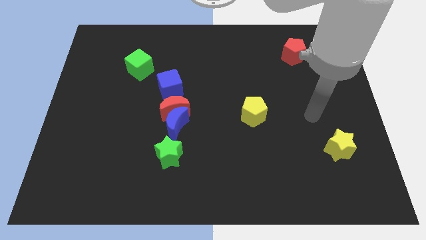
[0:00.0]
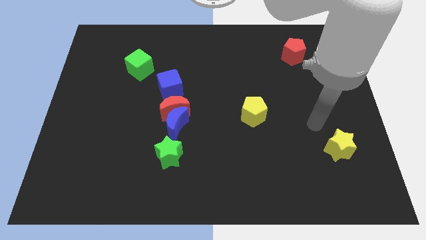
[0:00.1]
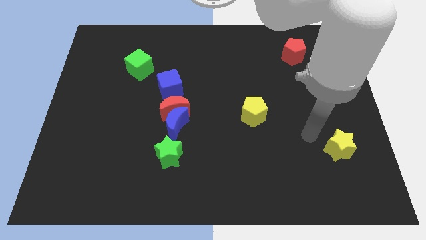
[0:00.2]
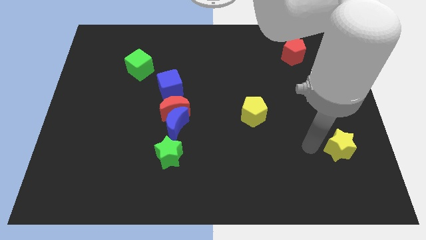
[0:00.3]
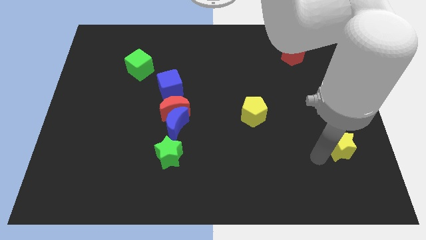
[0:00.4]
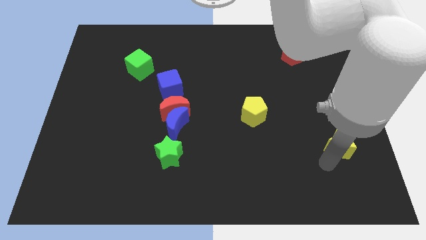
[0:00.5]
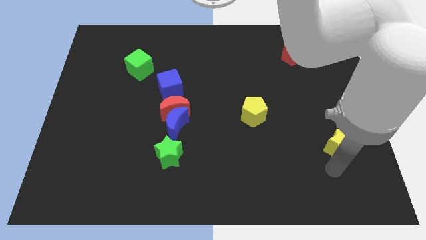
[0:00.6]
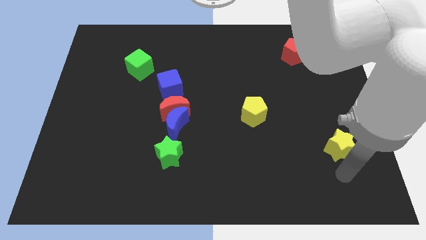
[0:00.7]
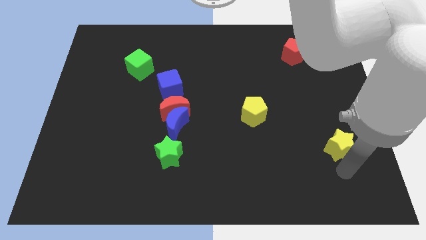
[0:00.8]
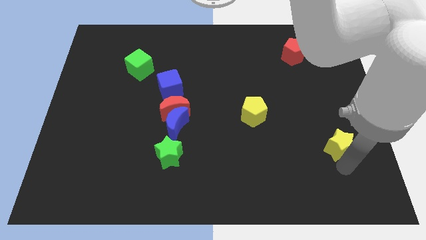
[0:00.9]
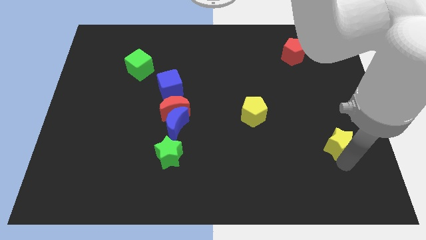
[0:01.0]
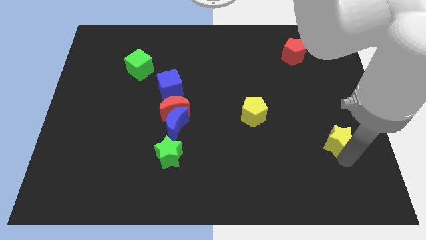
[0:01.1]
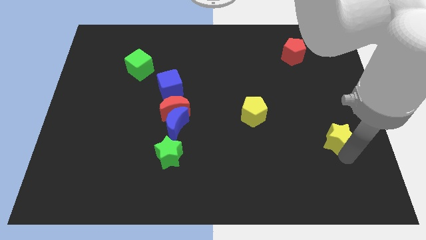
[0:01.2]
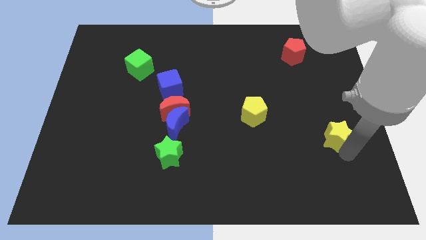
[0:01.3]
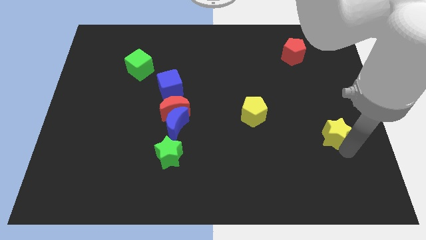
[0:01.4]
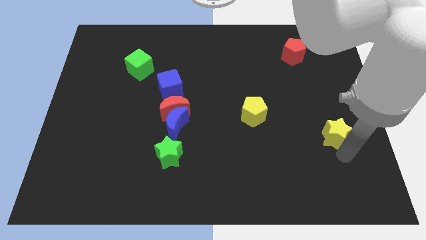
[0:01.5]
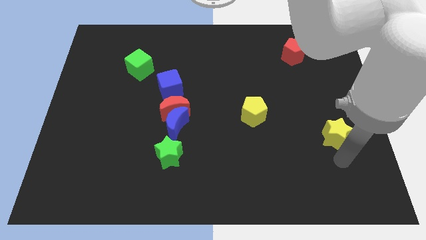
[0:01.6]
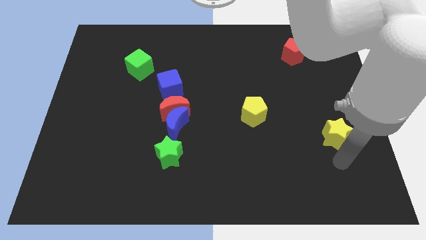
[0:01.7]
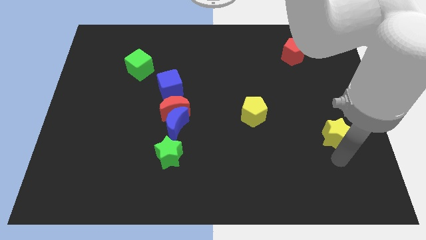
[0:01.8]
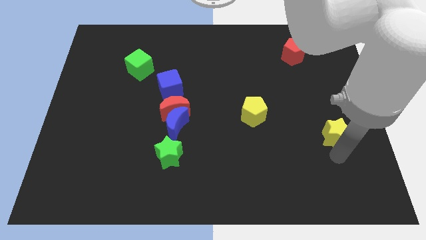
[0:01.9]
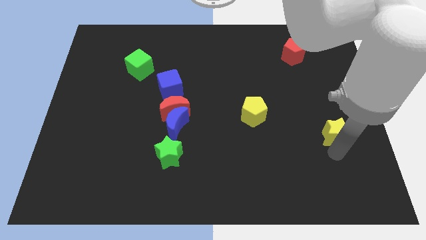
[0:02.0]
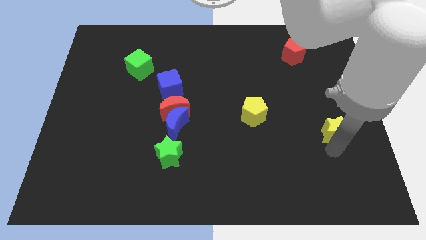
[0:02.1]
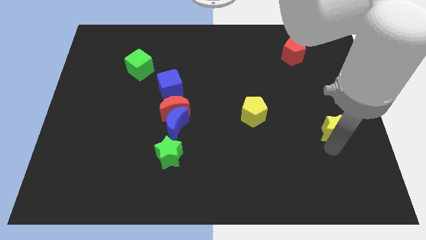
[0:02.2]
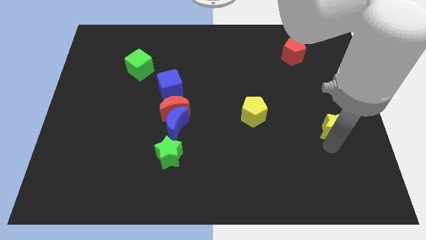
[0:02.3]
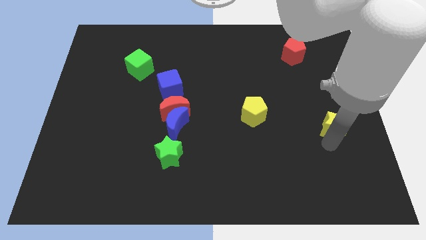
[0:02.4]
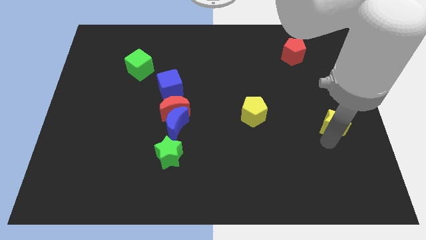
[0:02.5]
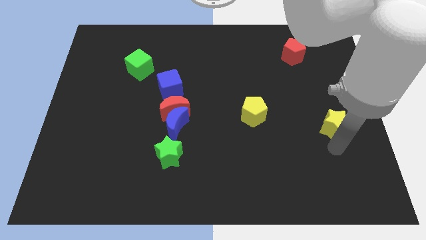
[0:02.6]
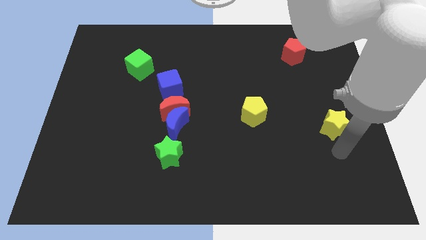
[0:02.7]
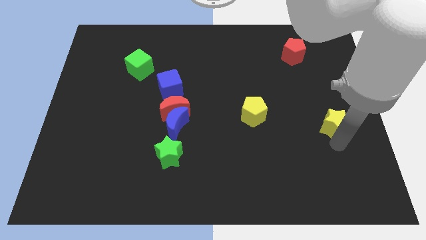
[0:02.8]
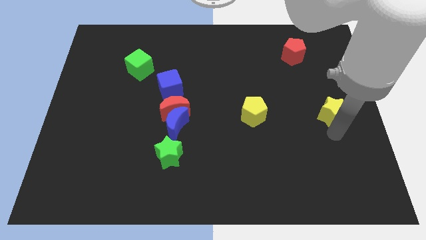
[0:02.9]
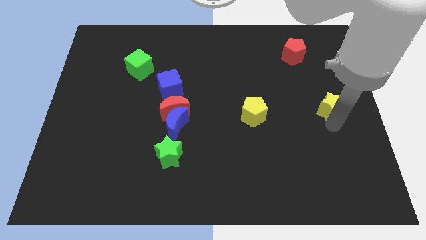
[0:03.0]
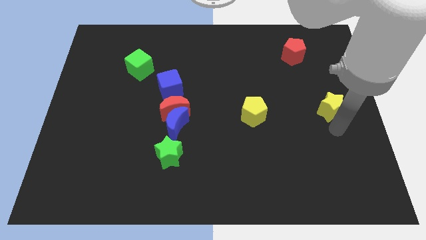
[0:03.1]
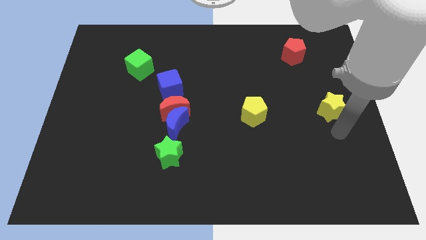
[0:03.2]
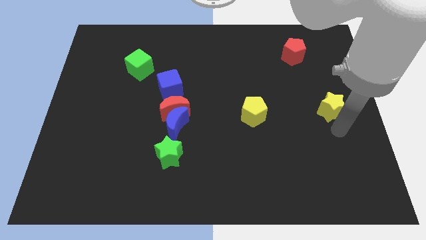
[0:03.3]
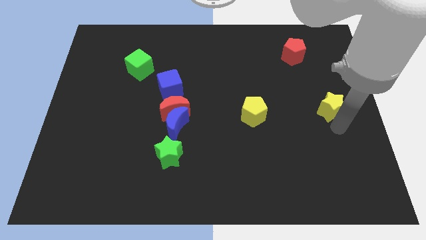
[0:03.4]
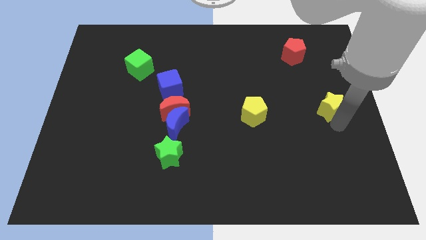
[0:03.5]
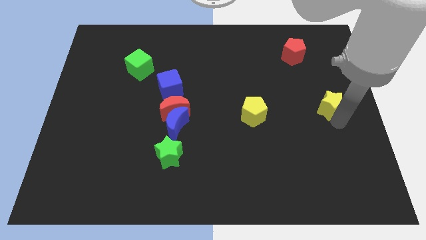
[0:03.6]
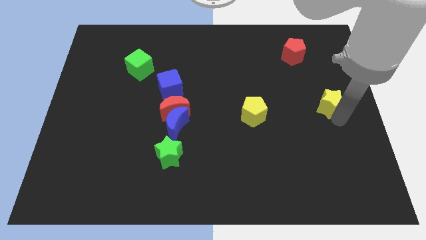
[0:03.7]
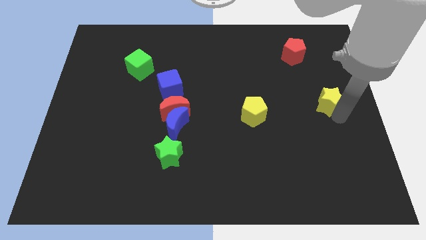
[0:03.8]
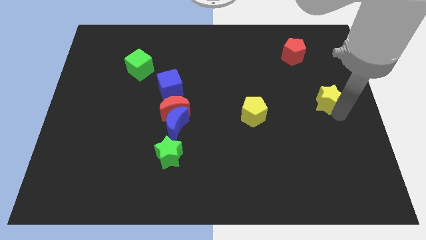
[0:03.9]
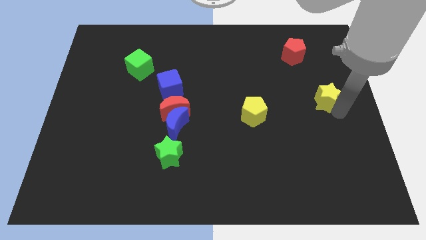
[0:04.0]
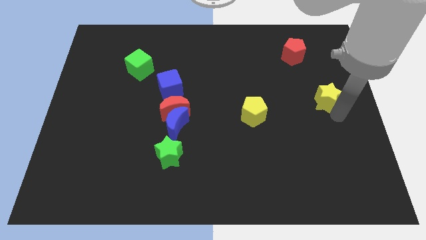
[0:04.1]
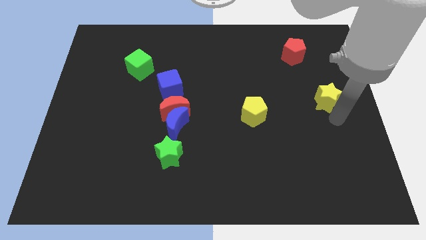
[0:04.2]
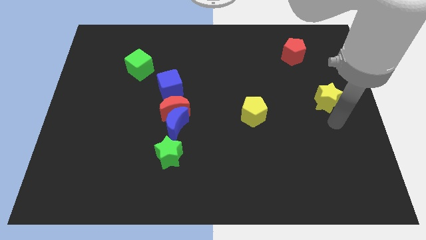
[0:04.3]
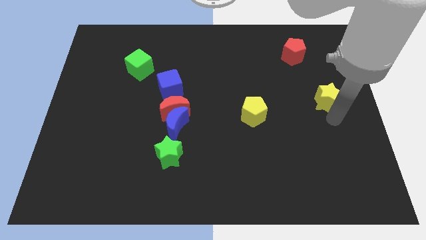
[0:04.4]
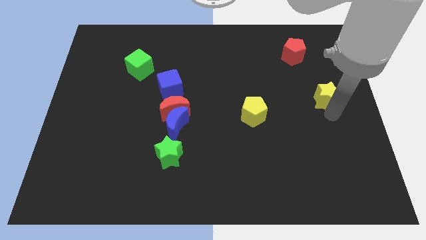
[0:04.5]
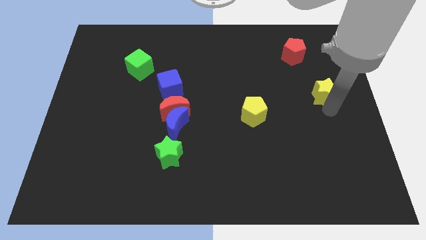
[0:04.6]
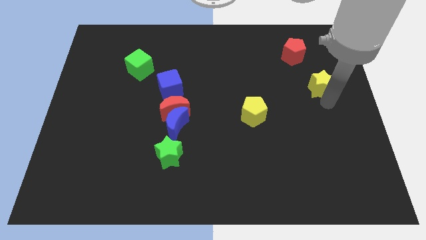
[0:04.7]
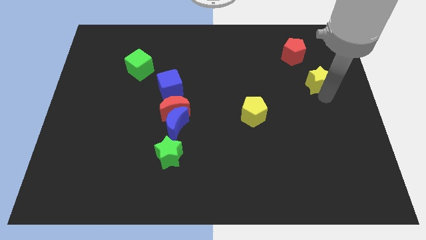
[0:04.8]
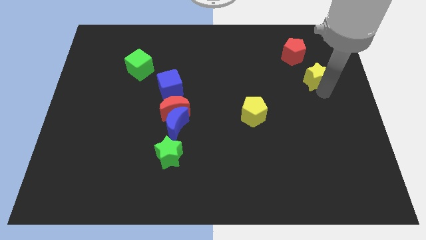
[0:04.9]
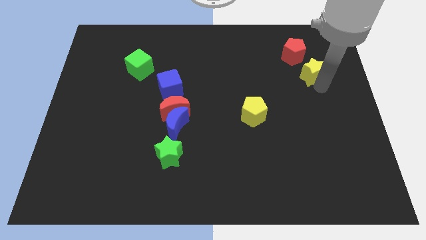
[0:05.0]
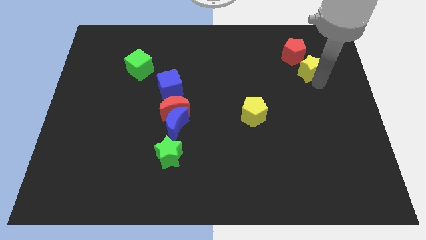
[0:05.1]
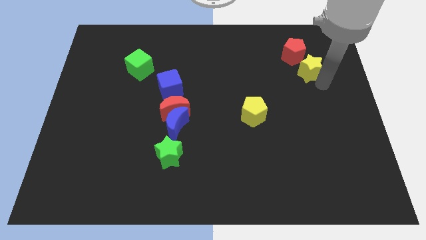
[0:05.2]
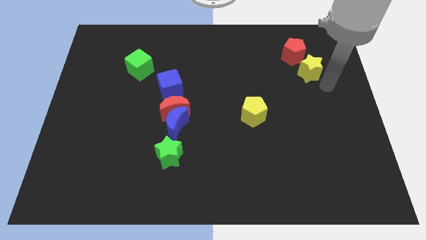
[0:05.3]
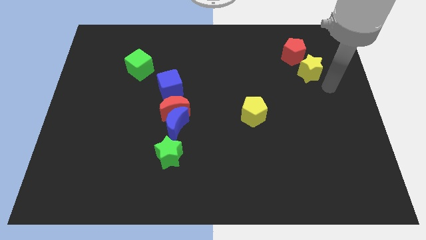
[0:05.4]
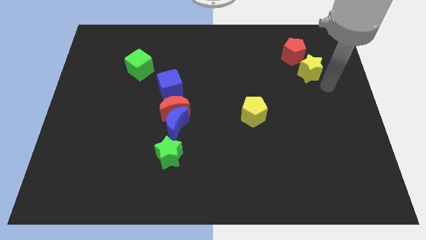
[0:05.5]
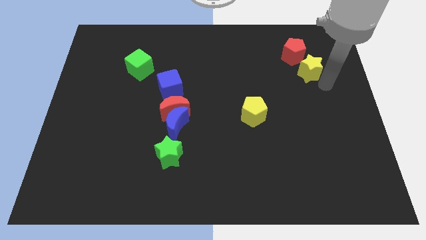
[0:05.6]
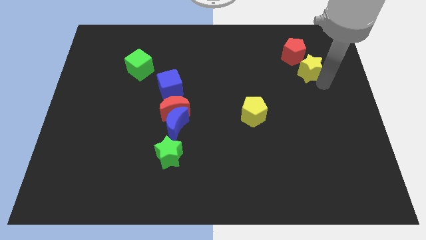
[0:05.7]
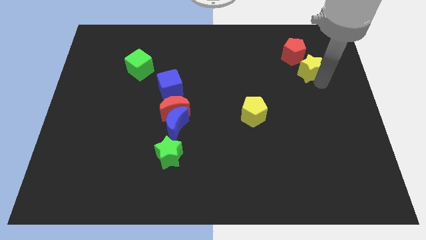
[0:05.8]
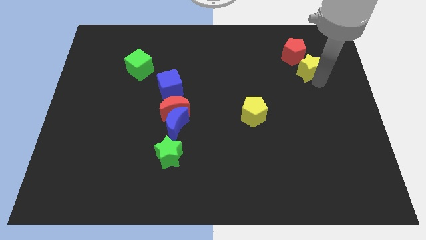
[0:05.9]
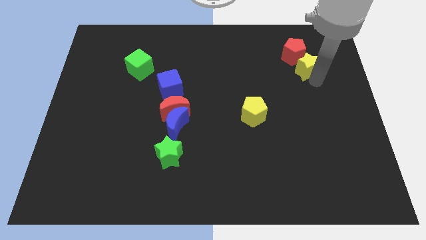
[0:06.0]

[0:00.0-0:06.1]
push the yellow star next to the red pentagon

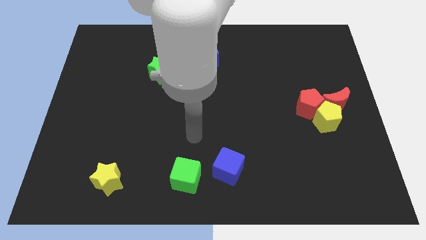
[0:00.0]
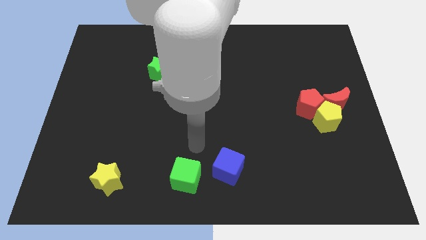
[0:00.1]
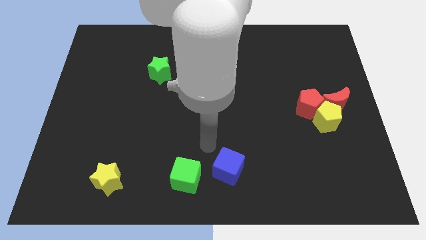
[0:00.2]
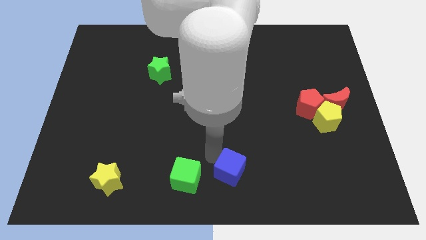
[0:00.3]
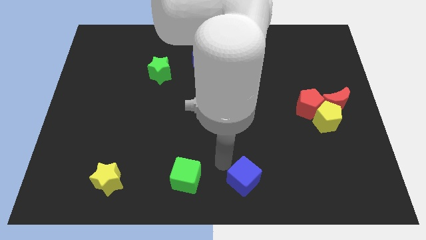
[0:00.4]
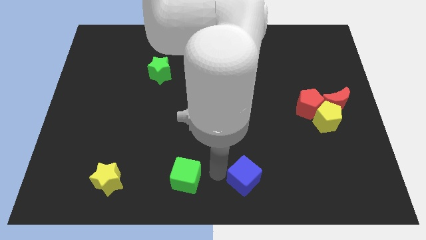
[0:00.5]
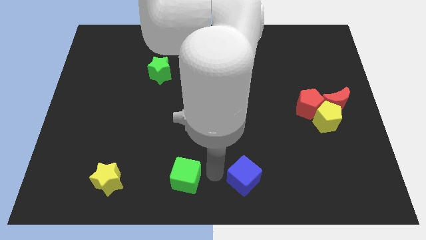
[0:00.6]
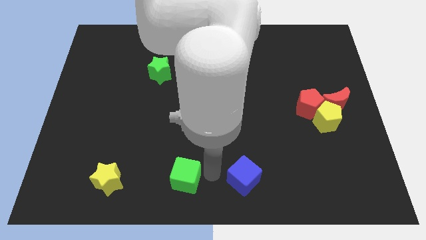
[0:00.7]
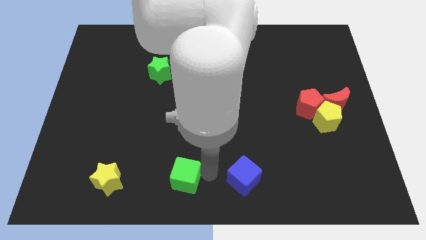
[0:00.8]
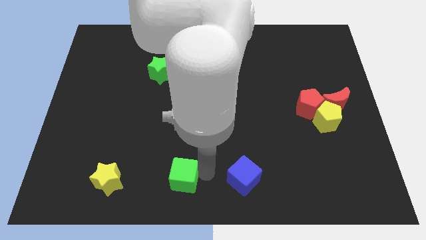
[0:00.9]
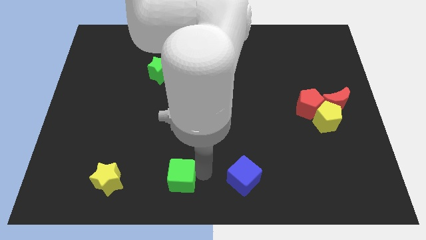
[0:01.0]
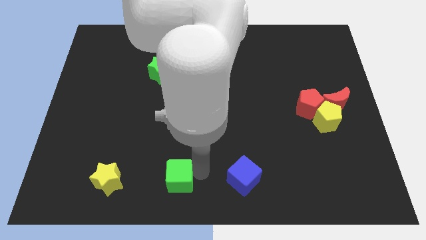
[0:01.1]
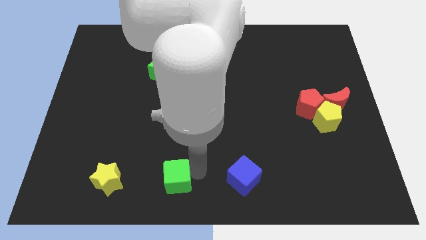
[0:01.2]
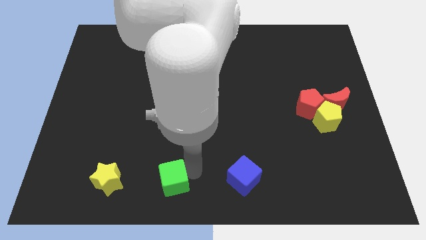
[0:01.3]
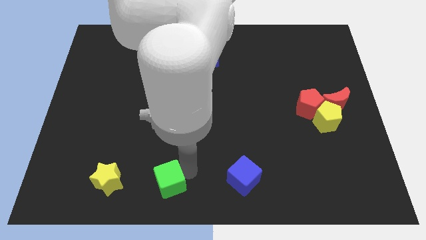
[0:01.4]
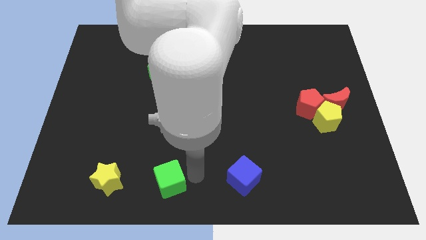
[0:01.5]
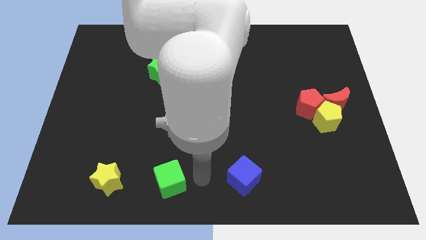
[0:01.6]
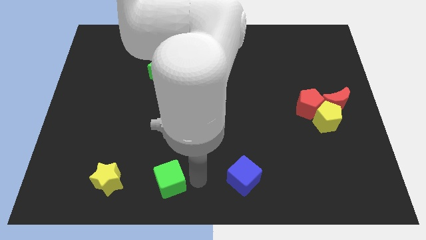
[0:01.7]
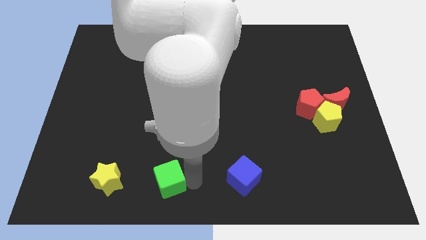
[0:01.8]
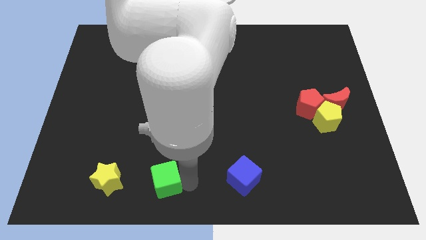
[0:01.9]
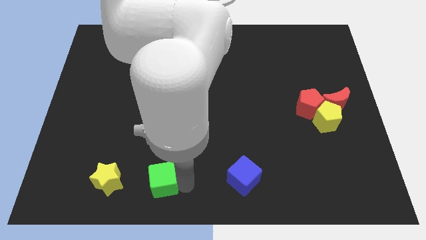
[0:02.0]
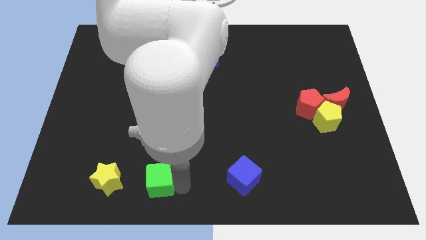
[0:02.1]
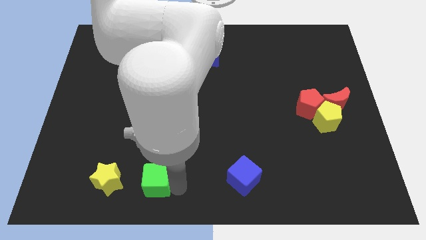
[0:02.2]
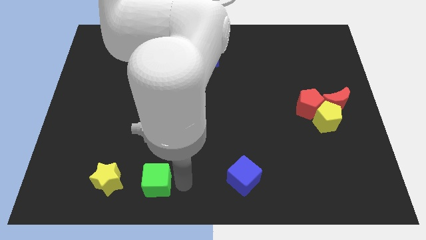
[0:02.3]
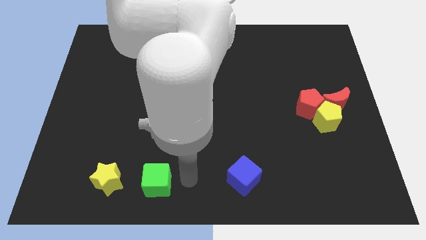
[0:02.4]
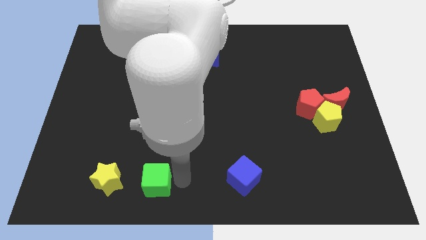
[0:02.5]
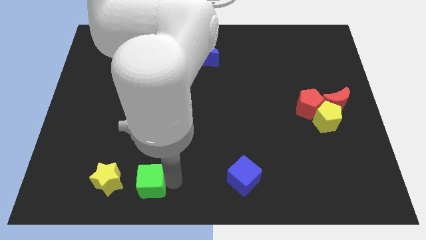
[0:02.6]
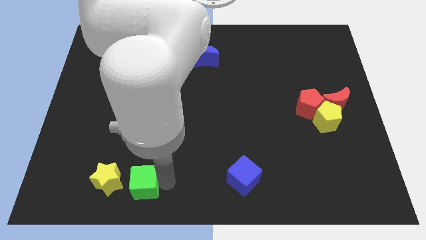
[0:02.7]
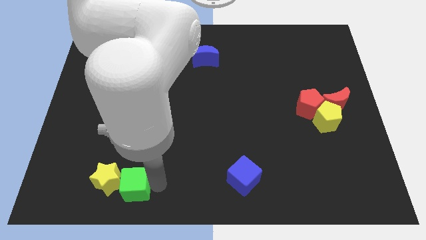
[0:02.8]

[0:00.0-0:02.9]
slide the green cube to the yellow star
